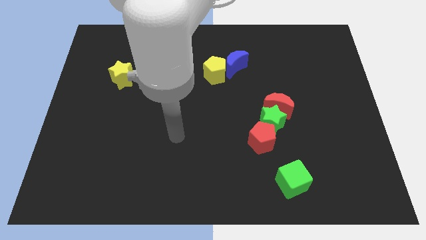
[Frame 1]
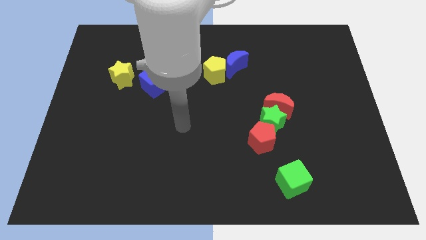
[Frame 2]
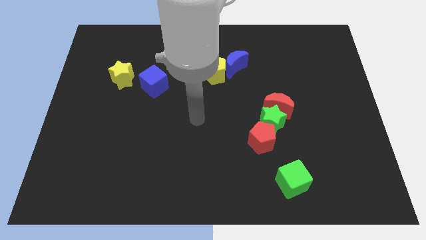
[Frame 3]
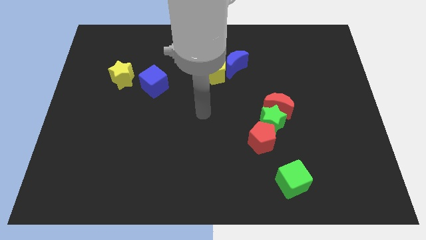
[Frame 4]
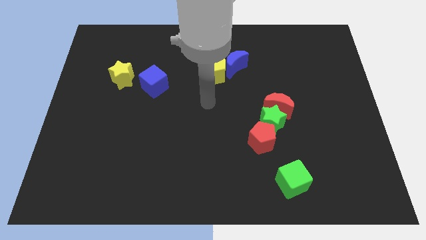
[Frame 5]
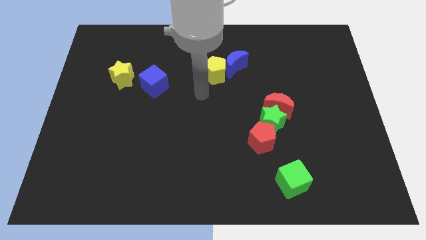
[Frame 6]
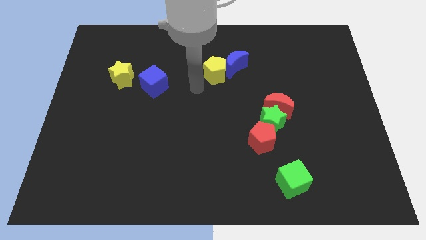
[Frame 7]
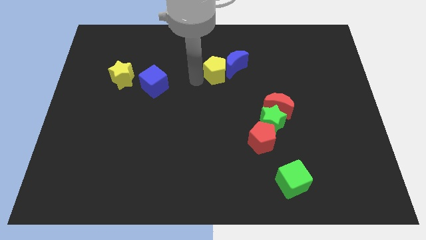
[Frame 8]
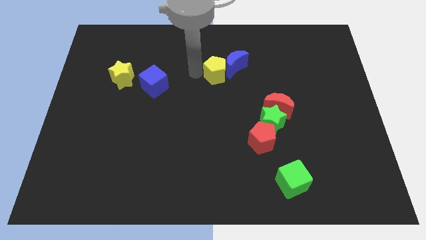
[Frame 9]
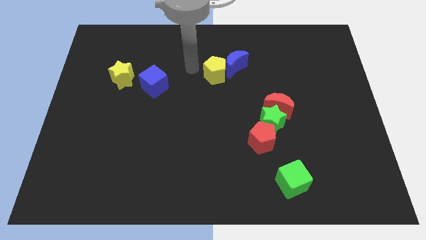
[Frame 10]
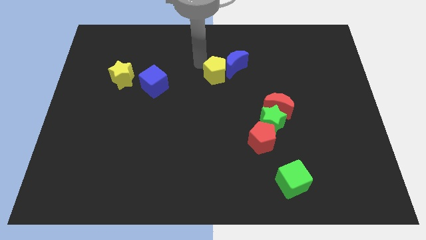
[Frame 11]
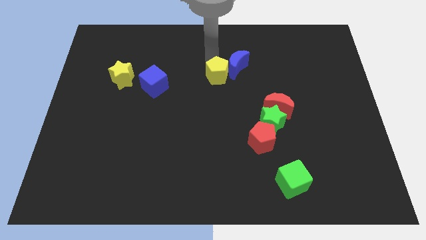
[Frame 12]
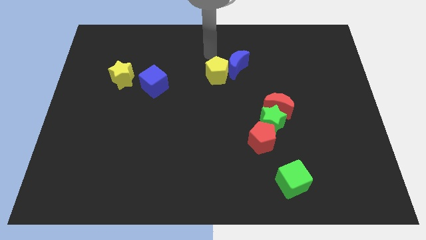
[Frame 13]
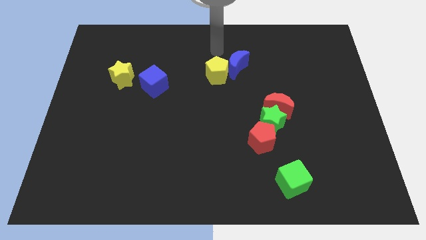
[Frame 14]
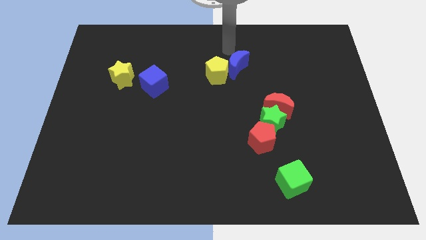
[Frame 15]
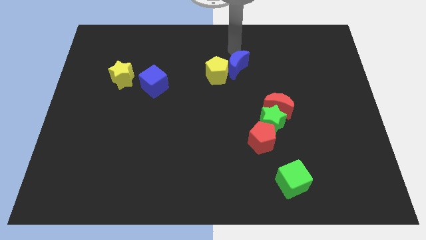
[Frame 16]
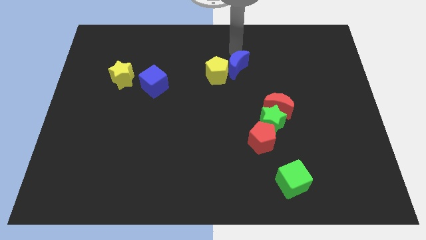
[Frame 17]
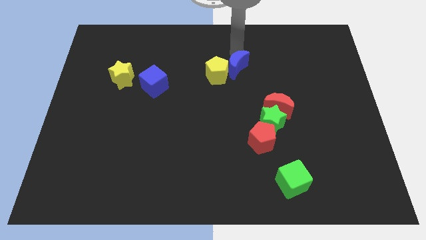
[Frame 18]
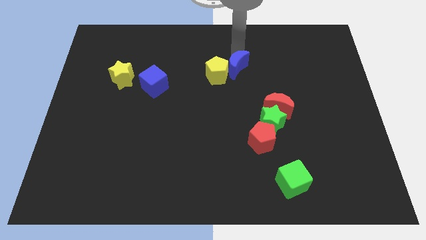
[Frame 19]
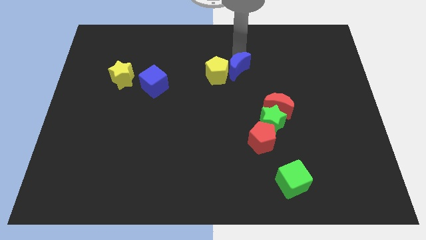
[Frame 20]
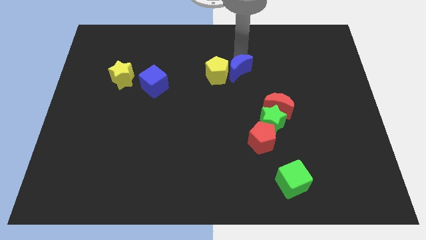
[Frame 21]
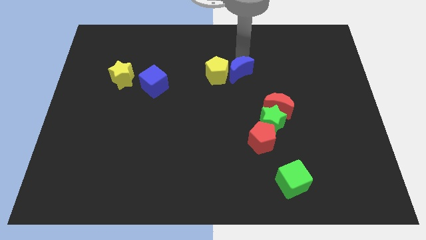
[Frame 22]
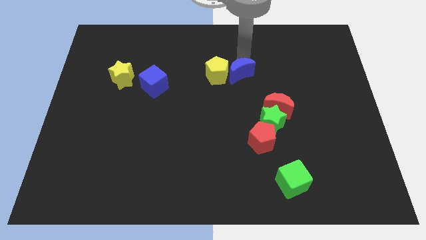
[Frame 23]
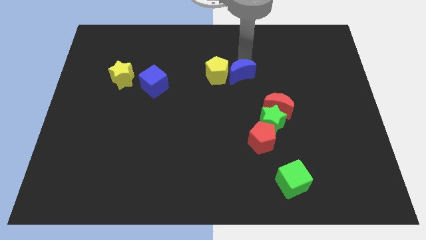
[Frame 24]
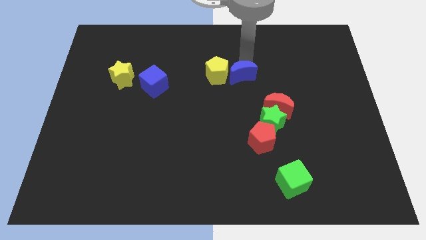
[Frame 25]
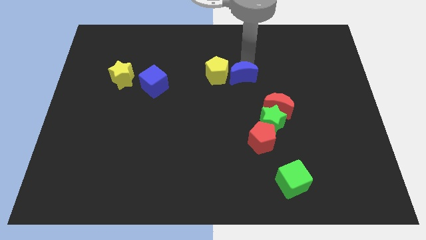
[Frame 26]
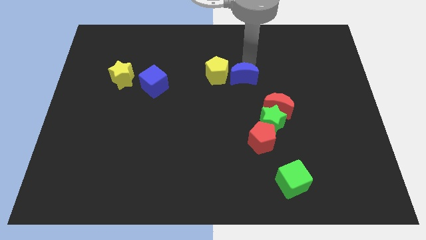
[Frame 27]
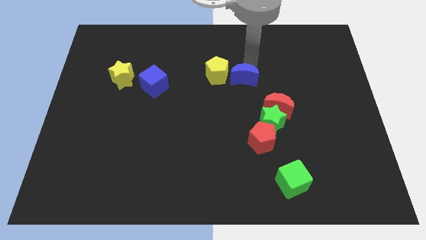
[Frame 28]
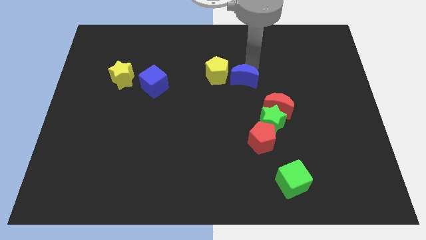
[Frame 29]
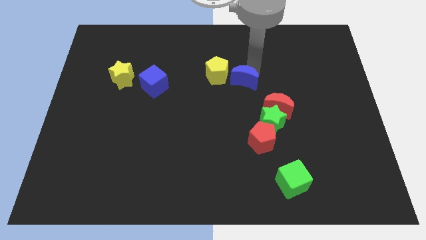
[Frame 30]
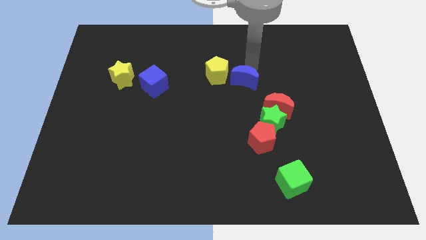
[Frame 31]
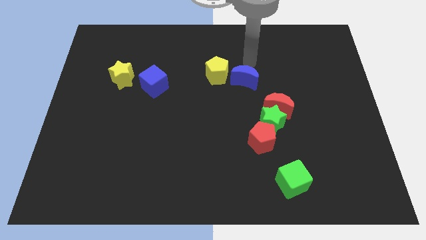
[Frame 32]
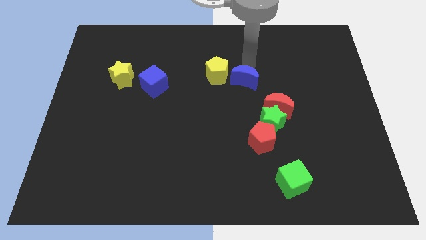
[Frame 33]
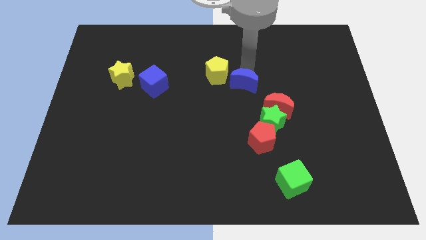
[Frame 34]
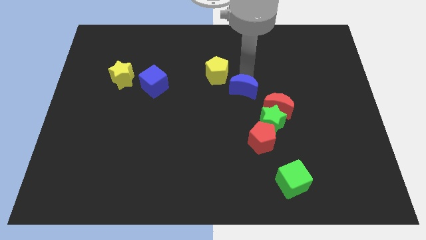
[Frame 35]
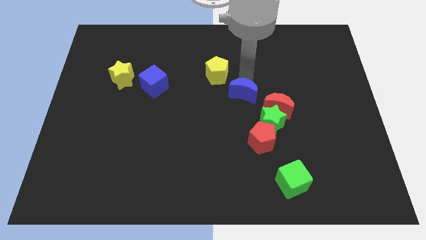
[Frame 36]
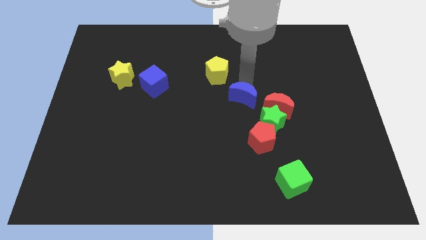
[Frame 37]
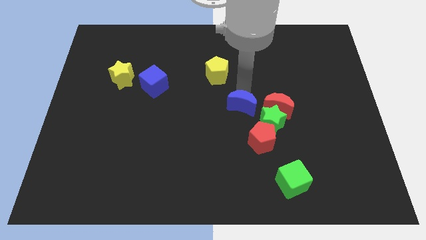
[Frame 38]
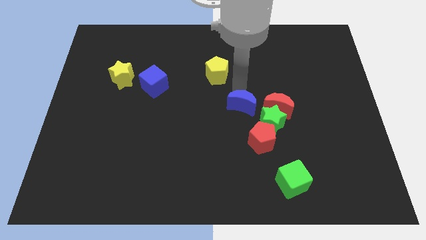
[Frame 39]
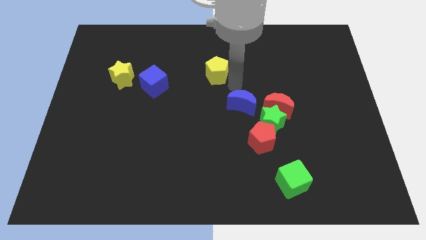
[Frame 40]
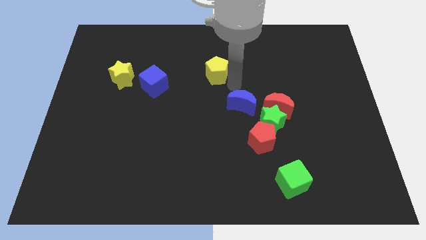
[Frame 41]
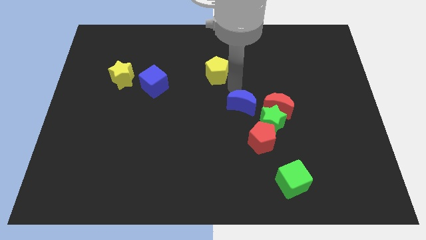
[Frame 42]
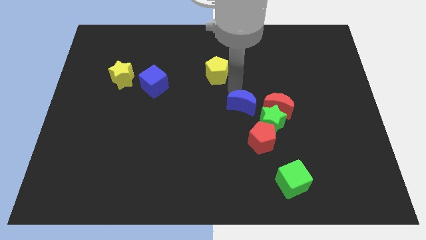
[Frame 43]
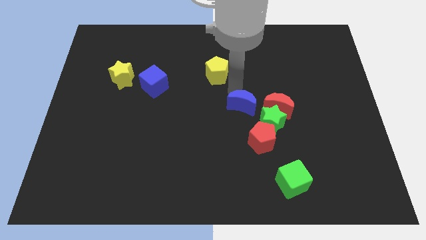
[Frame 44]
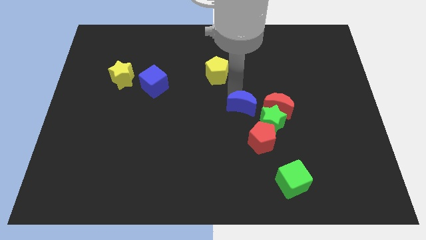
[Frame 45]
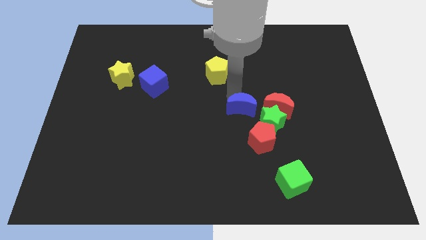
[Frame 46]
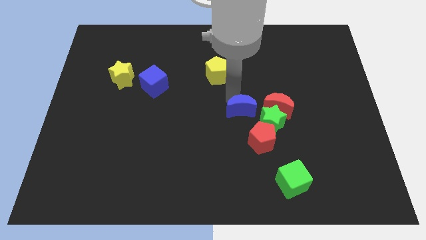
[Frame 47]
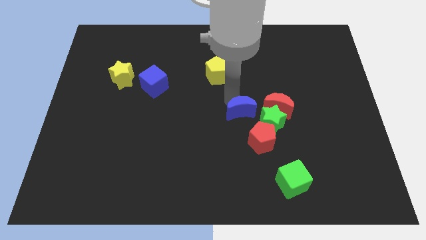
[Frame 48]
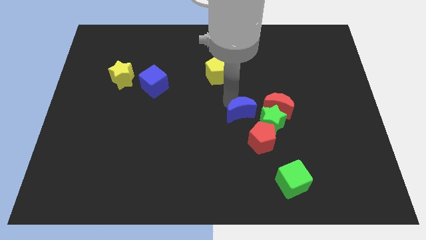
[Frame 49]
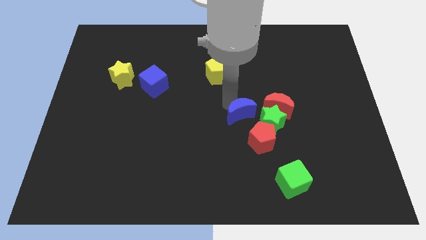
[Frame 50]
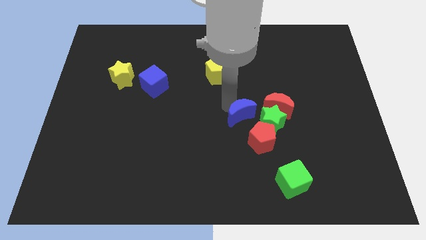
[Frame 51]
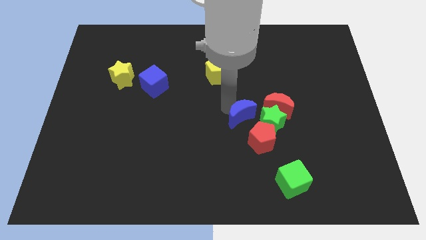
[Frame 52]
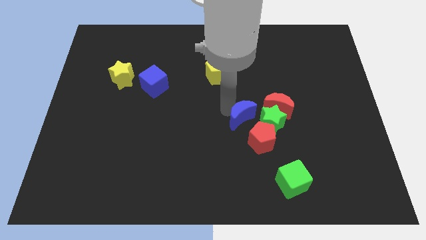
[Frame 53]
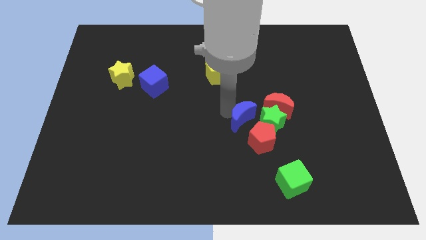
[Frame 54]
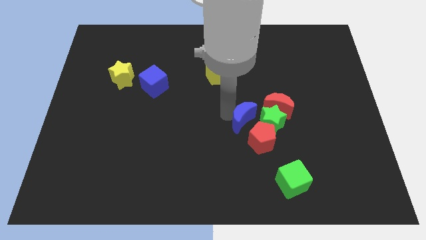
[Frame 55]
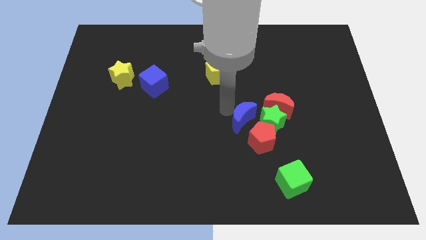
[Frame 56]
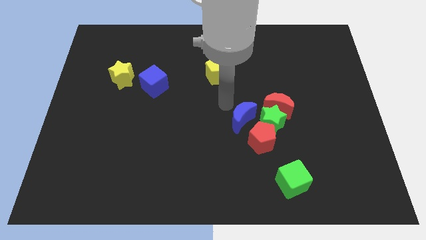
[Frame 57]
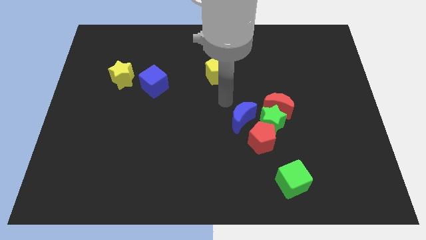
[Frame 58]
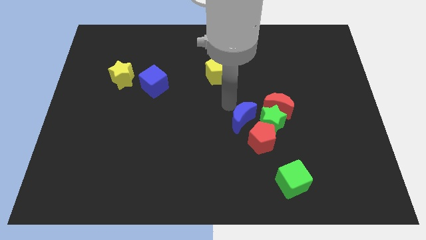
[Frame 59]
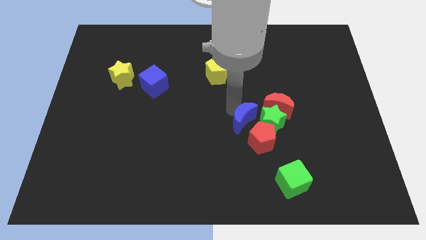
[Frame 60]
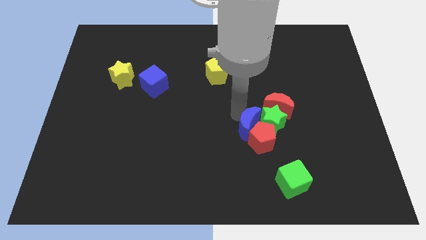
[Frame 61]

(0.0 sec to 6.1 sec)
push the blue moon close to the red pentagon

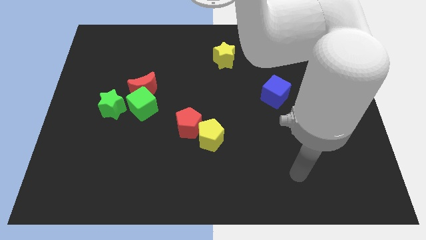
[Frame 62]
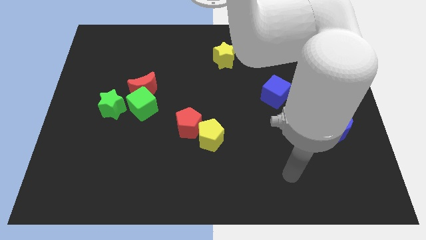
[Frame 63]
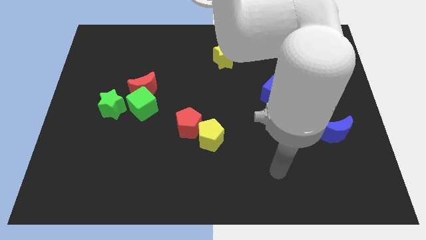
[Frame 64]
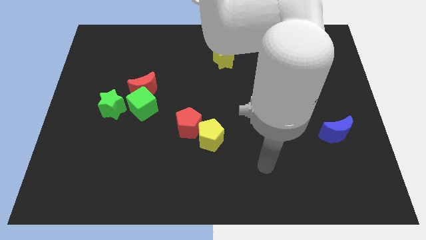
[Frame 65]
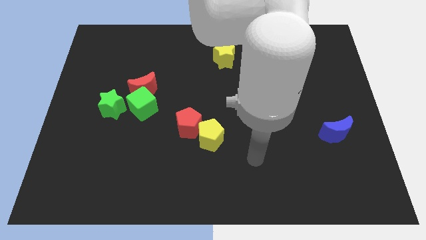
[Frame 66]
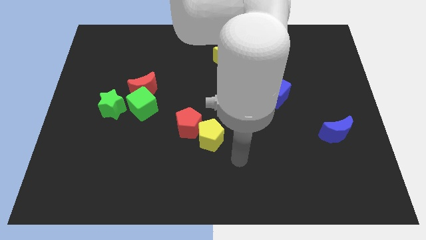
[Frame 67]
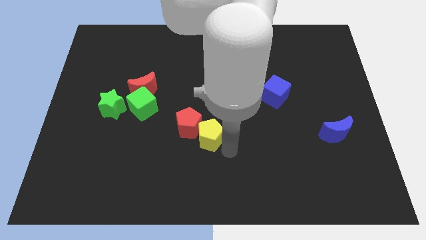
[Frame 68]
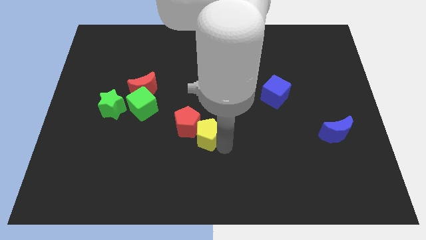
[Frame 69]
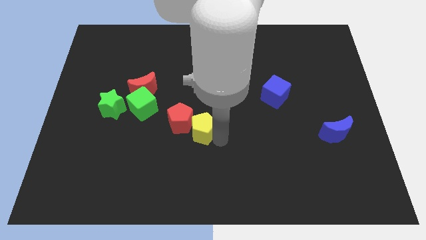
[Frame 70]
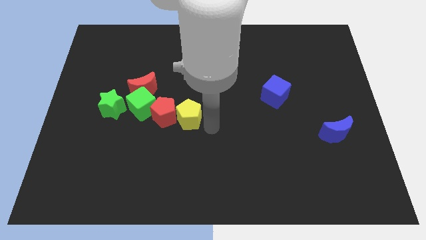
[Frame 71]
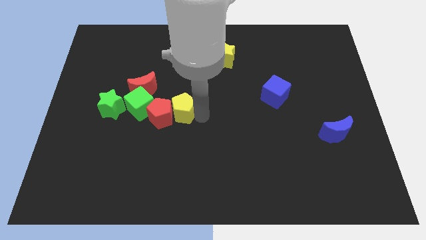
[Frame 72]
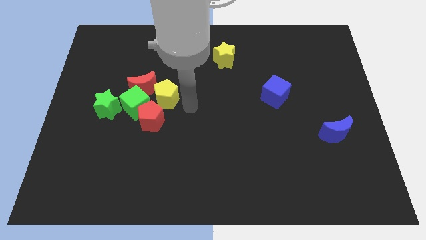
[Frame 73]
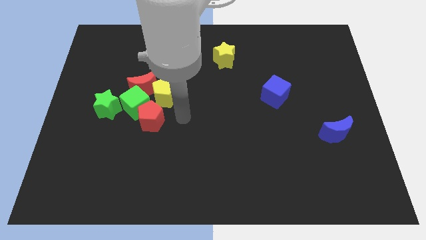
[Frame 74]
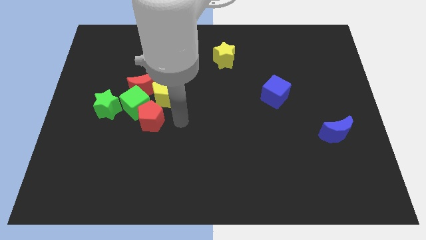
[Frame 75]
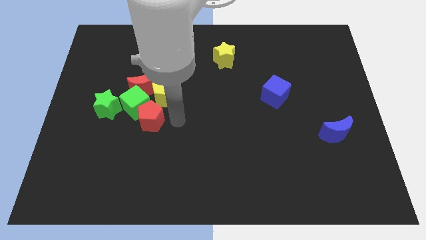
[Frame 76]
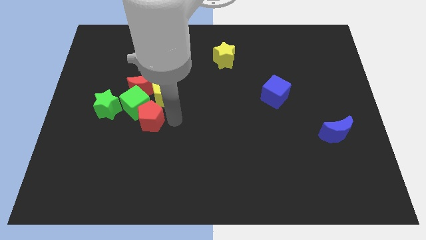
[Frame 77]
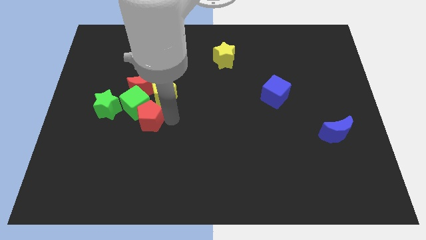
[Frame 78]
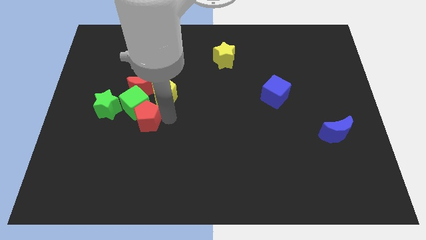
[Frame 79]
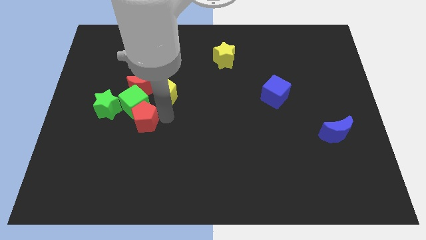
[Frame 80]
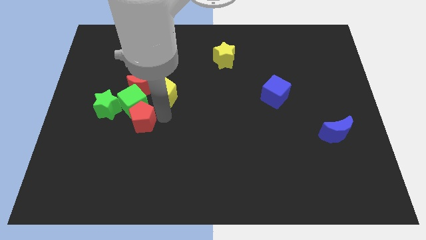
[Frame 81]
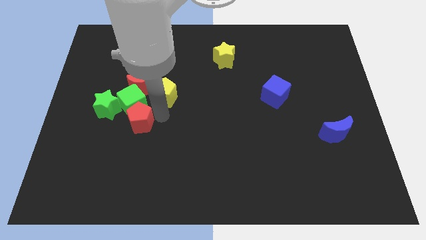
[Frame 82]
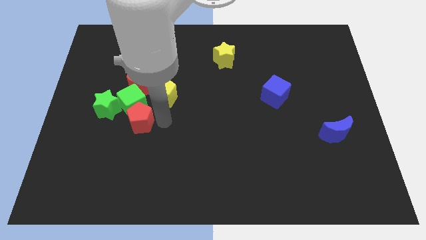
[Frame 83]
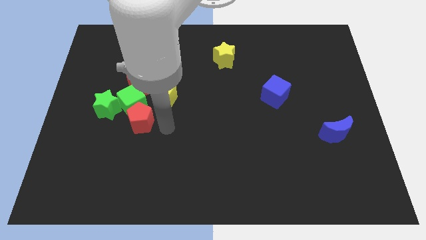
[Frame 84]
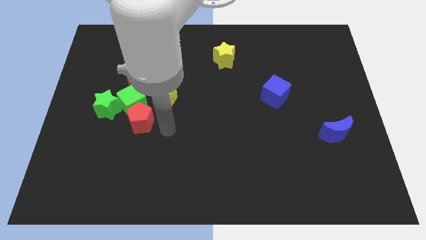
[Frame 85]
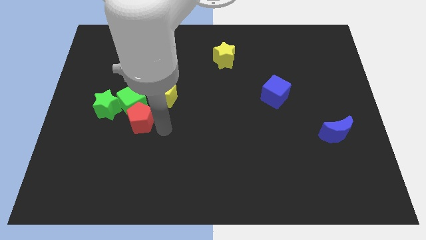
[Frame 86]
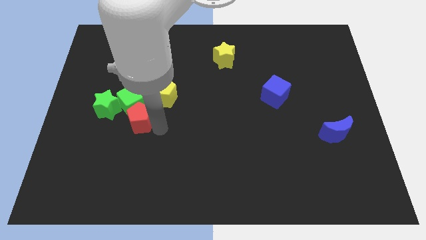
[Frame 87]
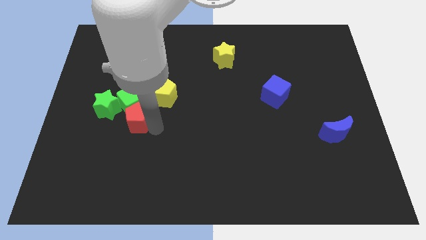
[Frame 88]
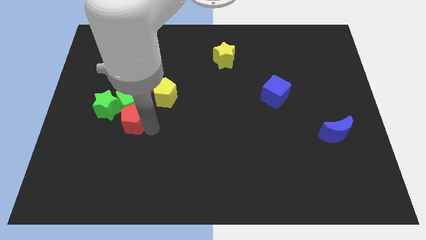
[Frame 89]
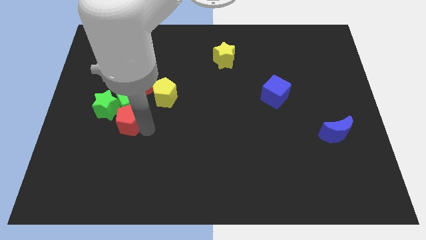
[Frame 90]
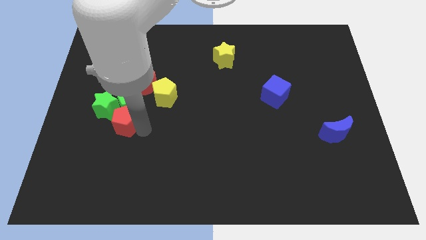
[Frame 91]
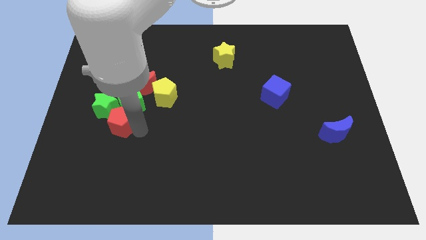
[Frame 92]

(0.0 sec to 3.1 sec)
push the red pentagon close to the green star
